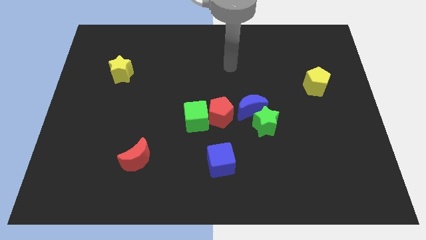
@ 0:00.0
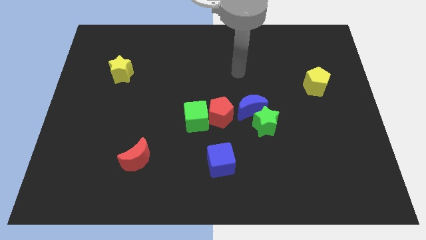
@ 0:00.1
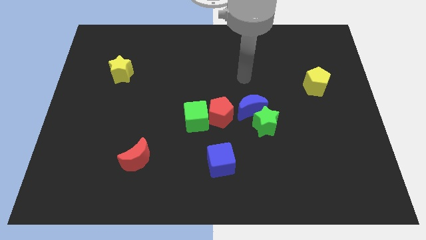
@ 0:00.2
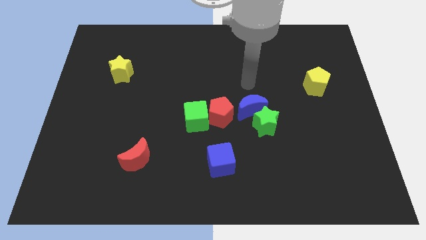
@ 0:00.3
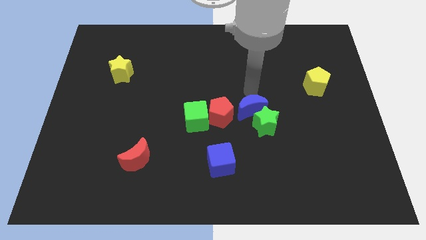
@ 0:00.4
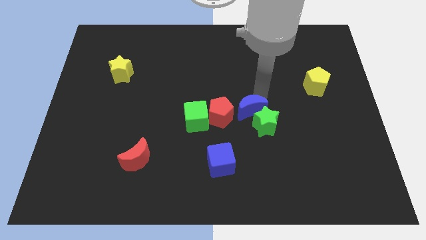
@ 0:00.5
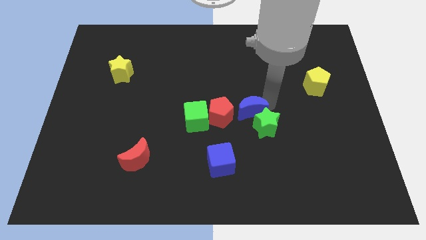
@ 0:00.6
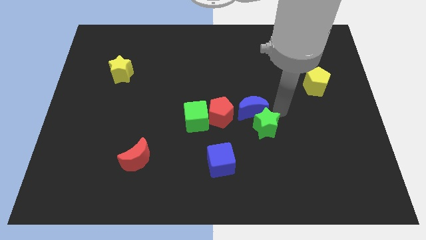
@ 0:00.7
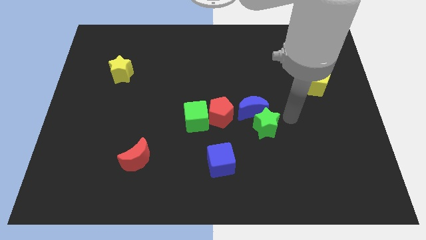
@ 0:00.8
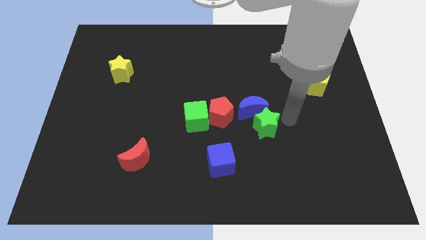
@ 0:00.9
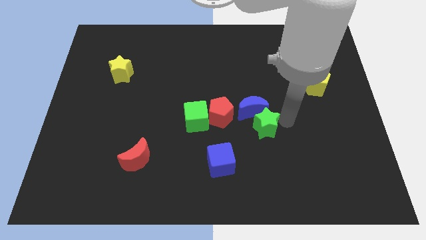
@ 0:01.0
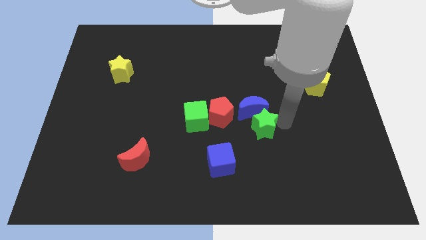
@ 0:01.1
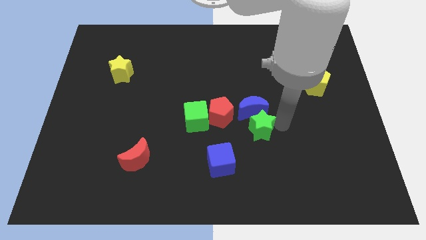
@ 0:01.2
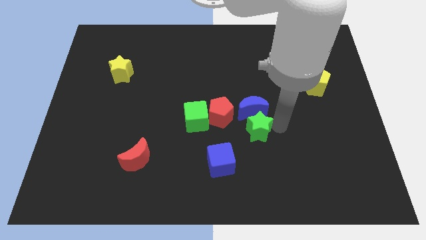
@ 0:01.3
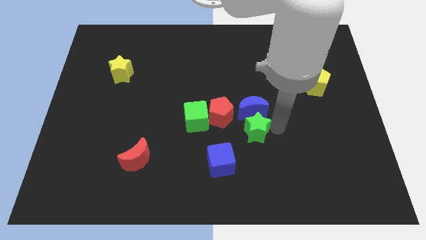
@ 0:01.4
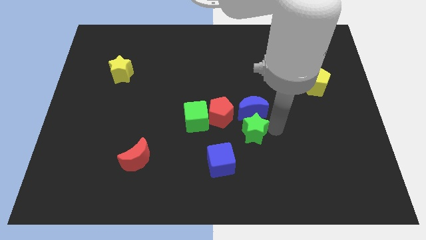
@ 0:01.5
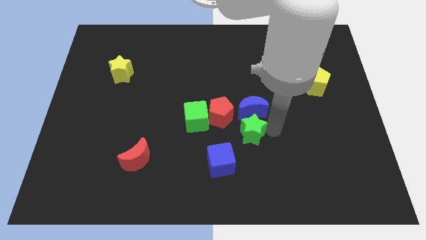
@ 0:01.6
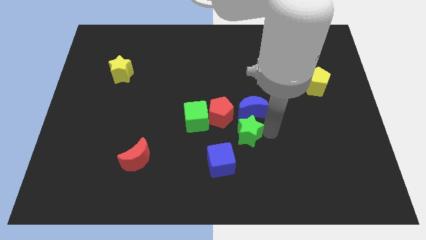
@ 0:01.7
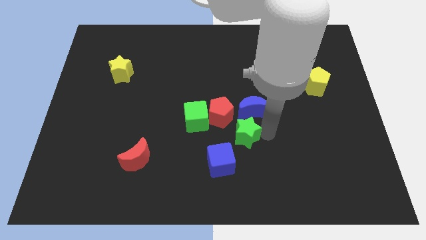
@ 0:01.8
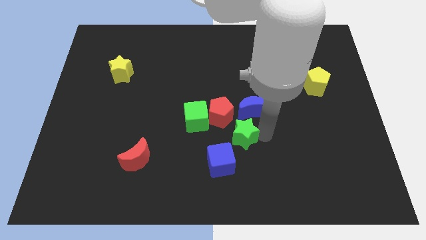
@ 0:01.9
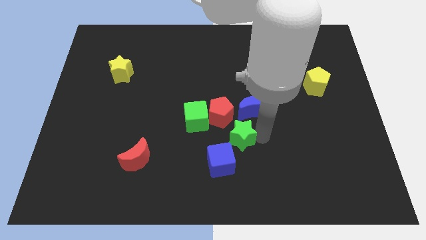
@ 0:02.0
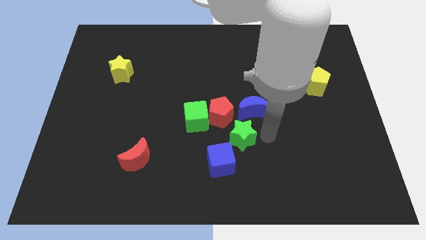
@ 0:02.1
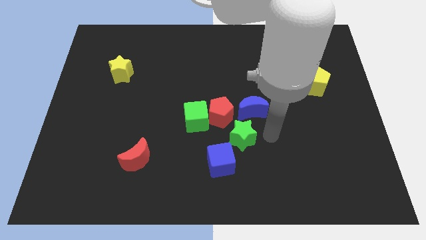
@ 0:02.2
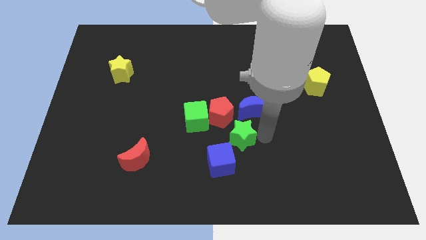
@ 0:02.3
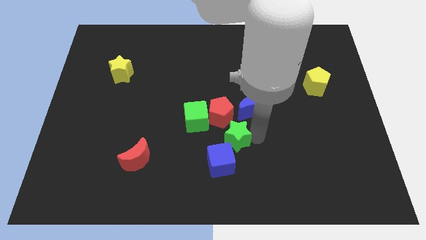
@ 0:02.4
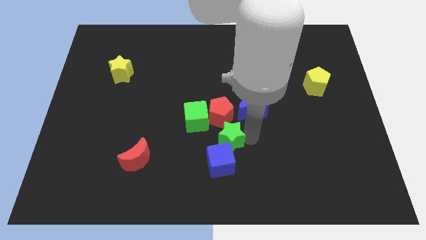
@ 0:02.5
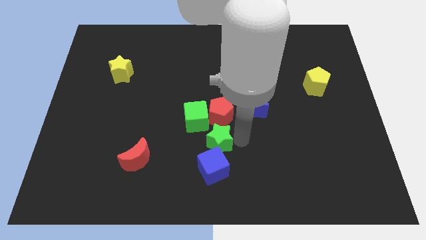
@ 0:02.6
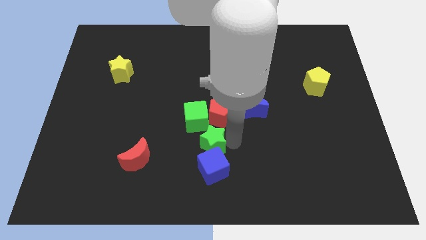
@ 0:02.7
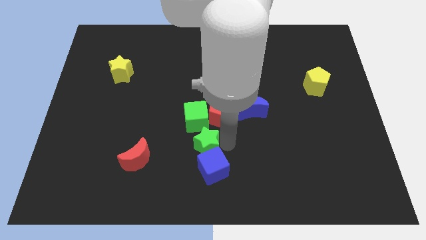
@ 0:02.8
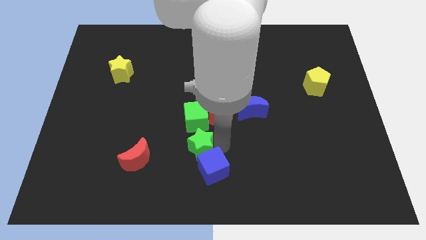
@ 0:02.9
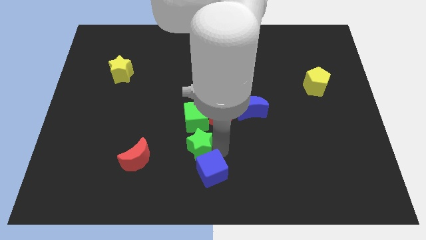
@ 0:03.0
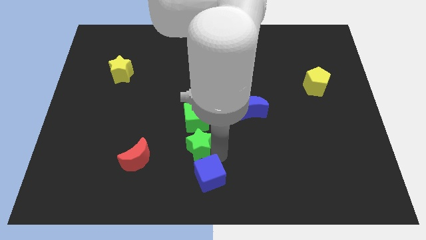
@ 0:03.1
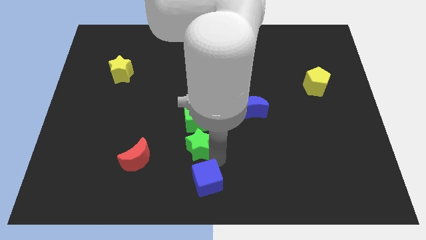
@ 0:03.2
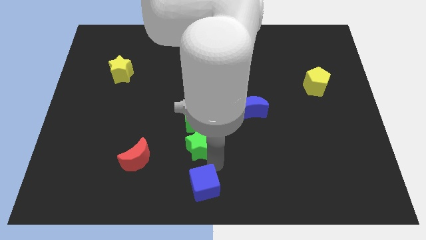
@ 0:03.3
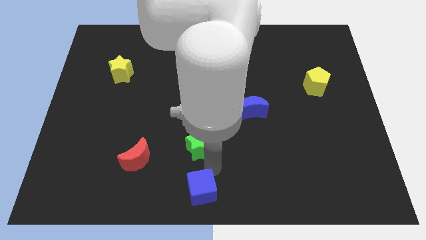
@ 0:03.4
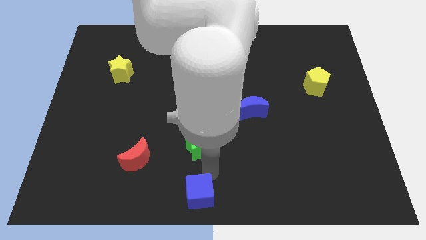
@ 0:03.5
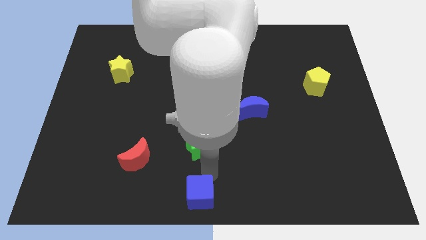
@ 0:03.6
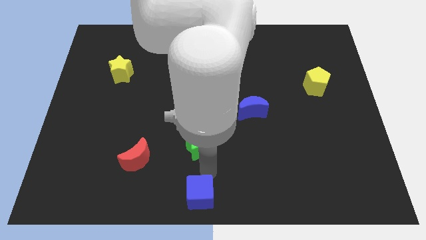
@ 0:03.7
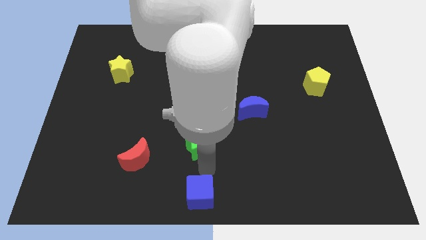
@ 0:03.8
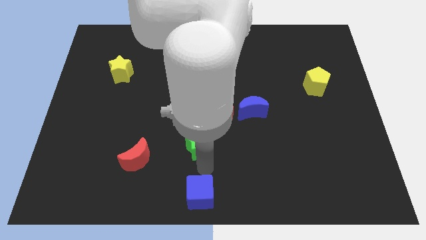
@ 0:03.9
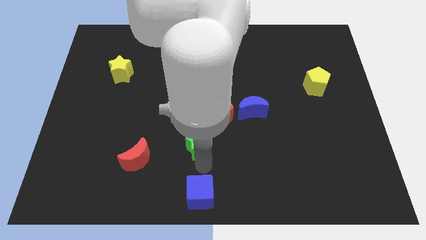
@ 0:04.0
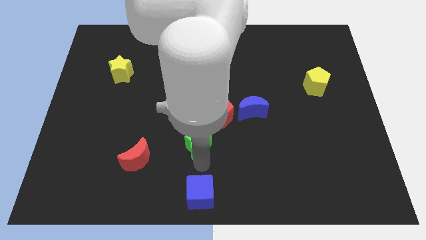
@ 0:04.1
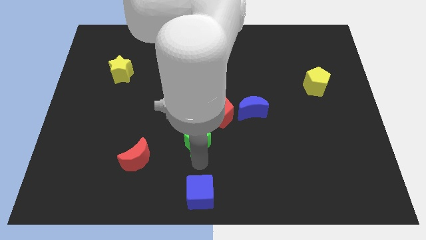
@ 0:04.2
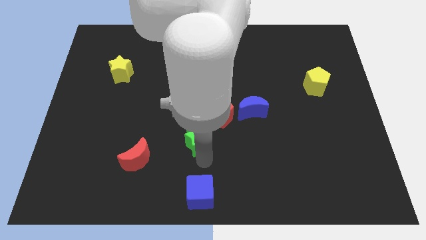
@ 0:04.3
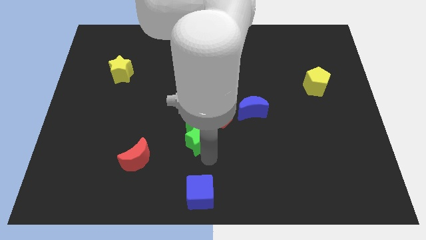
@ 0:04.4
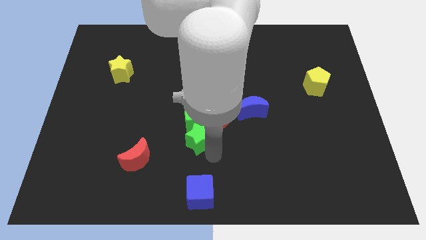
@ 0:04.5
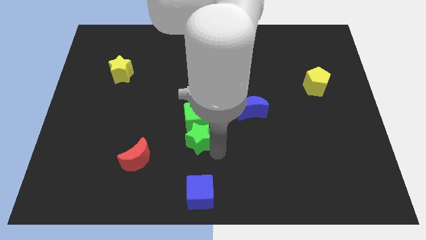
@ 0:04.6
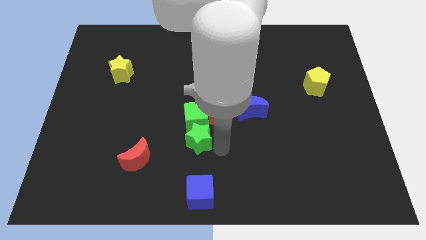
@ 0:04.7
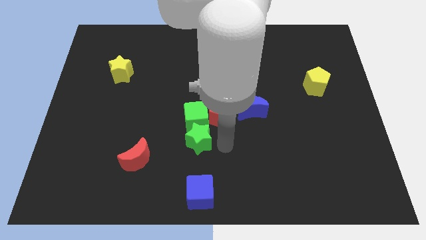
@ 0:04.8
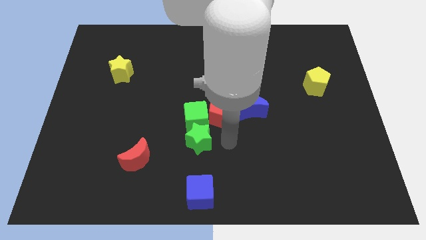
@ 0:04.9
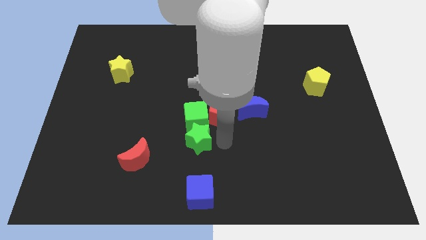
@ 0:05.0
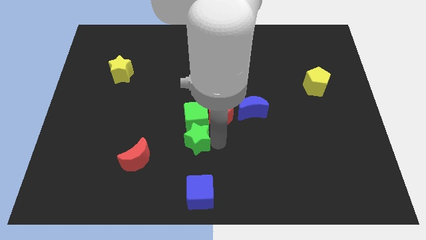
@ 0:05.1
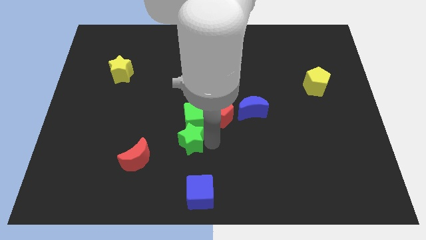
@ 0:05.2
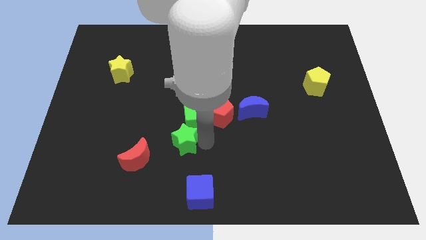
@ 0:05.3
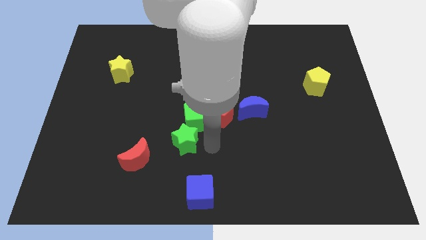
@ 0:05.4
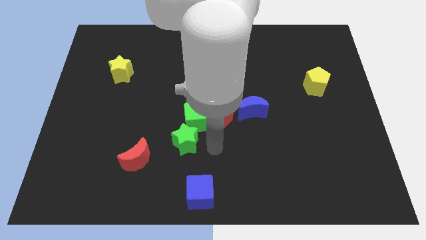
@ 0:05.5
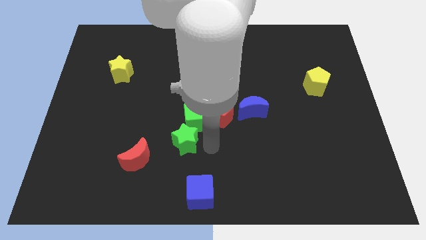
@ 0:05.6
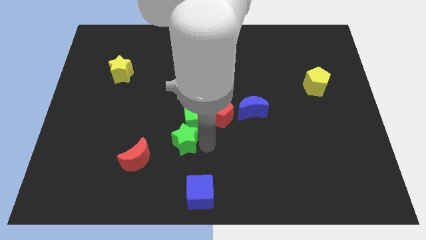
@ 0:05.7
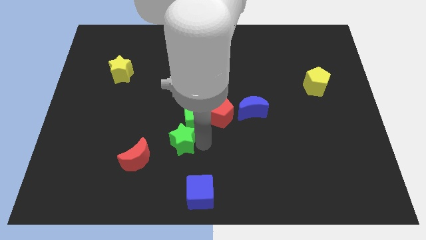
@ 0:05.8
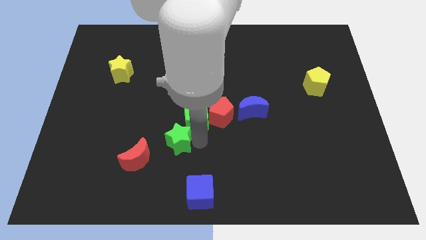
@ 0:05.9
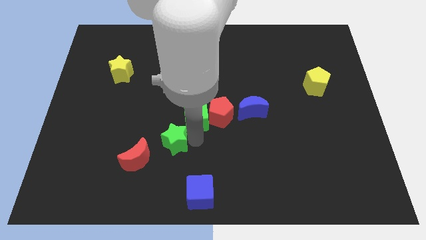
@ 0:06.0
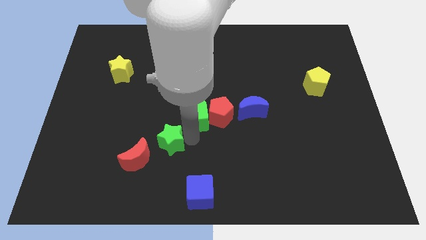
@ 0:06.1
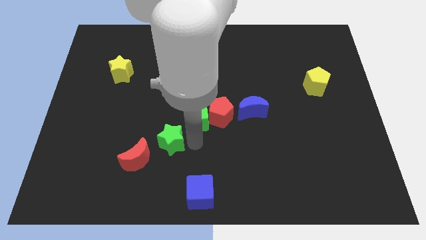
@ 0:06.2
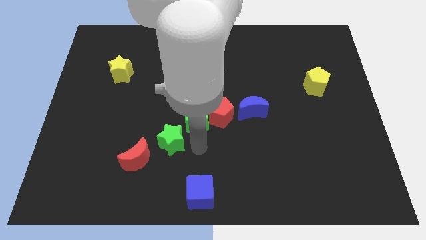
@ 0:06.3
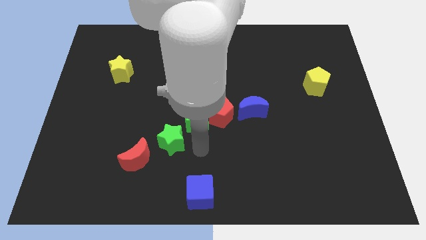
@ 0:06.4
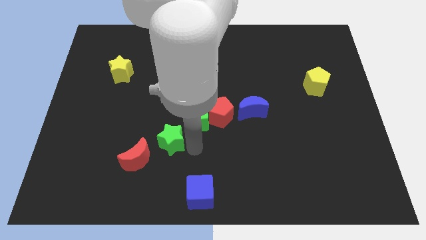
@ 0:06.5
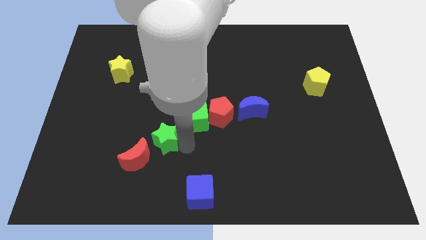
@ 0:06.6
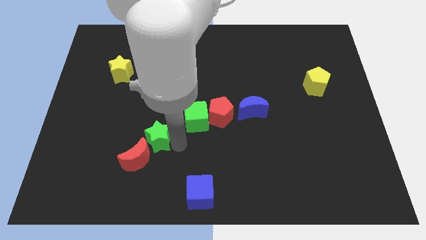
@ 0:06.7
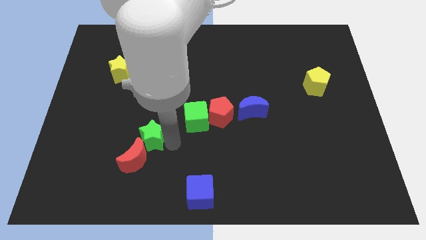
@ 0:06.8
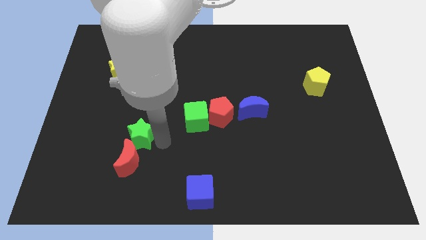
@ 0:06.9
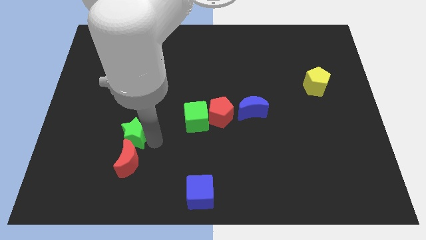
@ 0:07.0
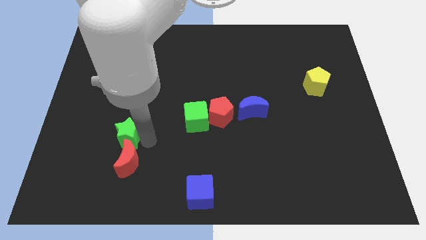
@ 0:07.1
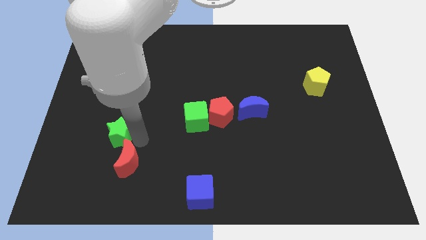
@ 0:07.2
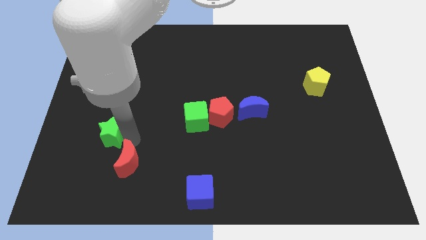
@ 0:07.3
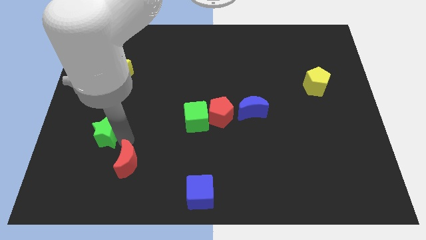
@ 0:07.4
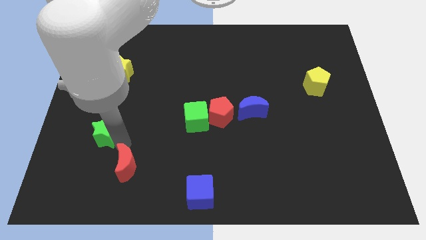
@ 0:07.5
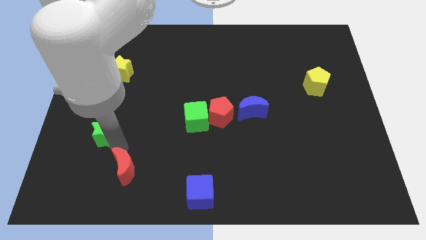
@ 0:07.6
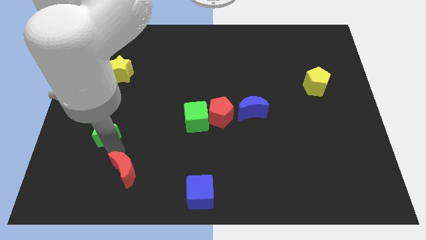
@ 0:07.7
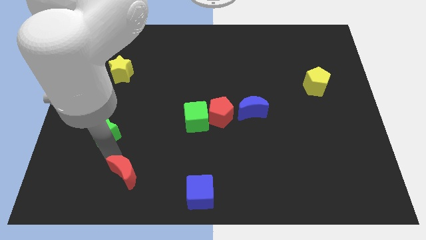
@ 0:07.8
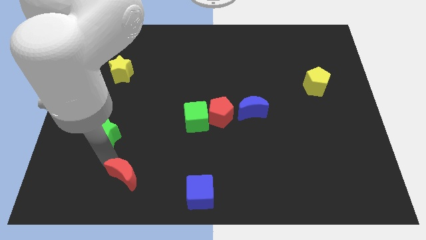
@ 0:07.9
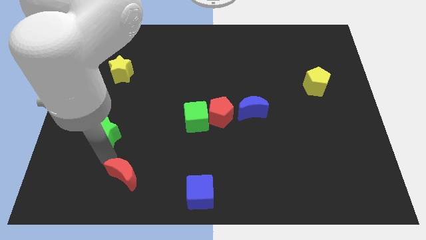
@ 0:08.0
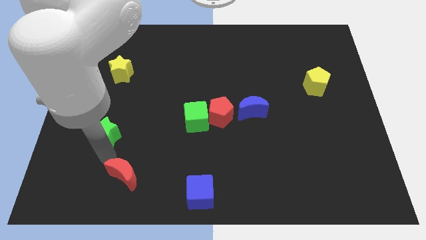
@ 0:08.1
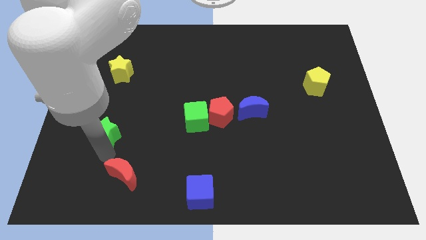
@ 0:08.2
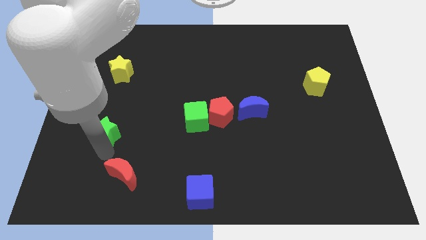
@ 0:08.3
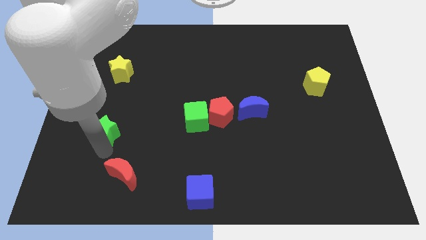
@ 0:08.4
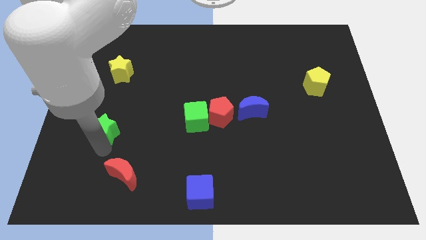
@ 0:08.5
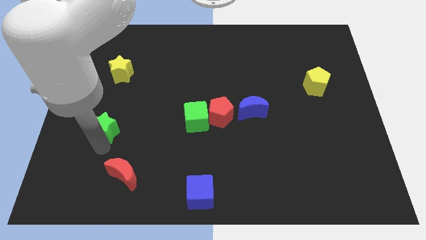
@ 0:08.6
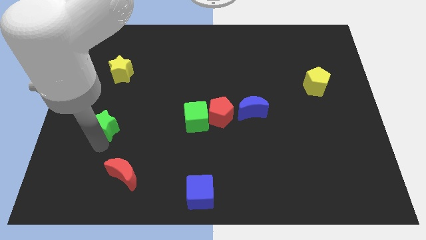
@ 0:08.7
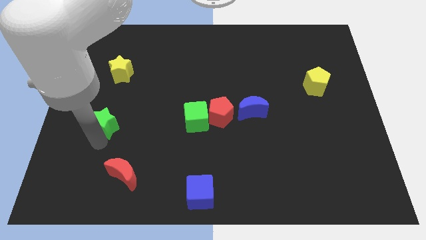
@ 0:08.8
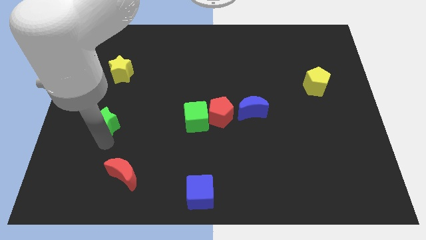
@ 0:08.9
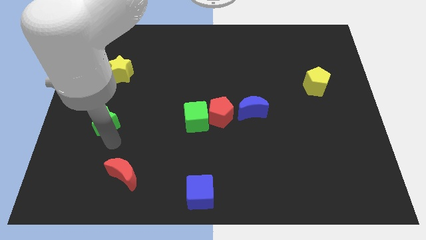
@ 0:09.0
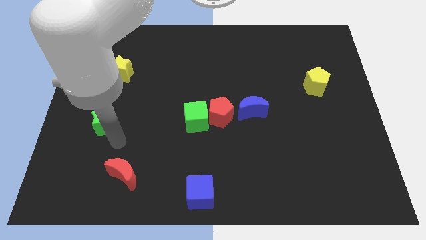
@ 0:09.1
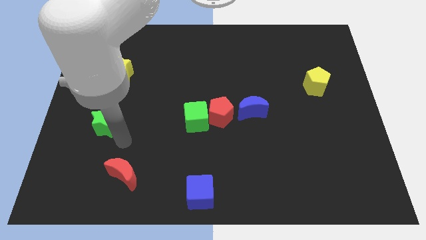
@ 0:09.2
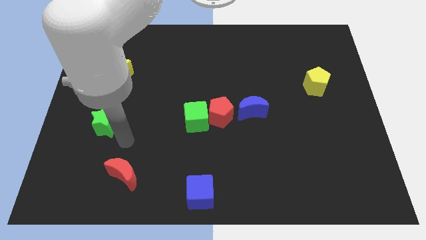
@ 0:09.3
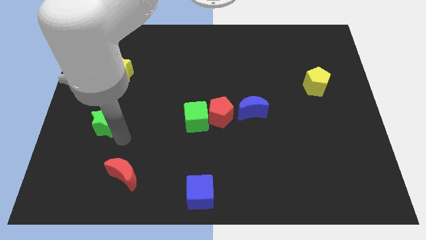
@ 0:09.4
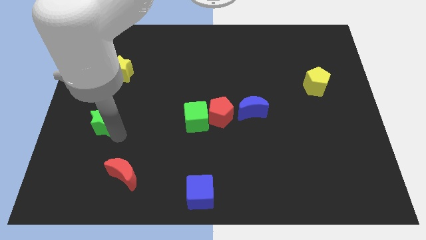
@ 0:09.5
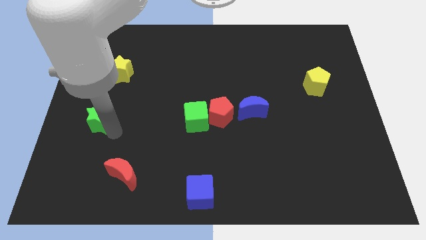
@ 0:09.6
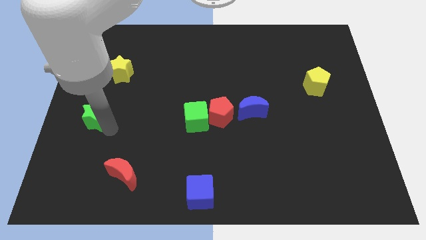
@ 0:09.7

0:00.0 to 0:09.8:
slide the green star to the left side of the board
